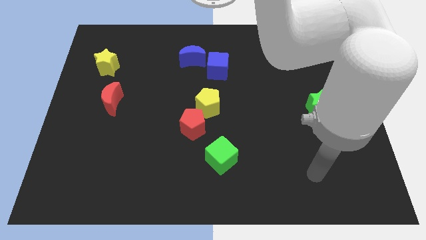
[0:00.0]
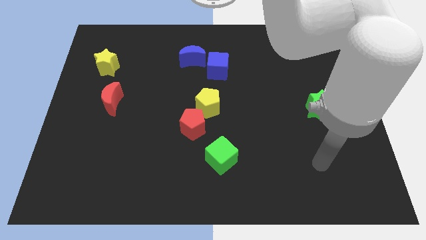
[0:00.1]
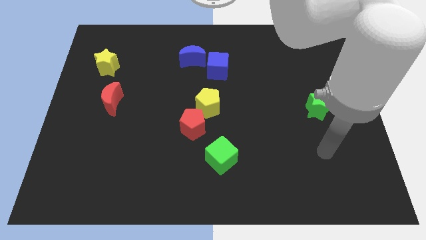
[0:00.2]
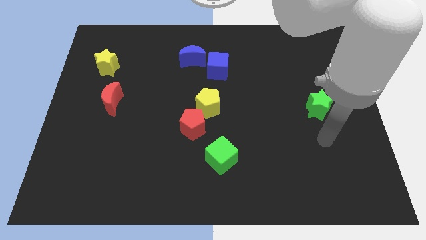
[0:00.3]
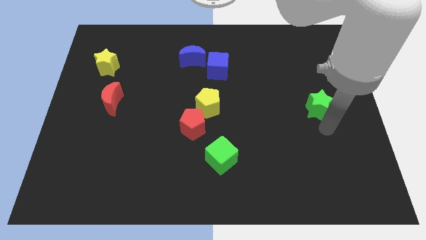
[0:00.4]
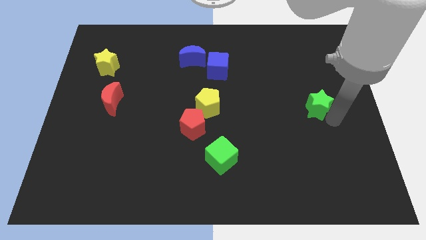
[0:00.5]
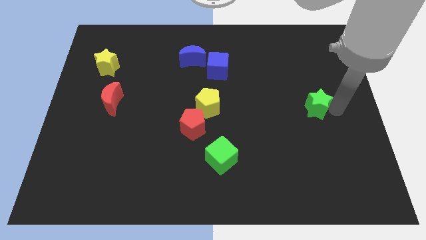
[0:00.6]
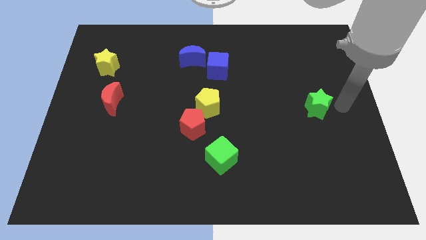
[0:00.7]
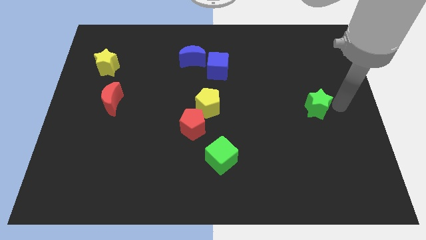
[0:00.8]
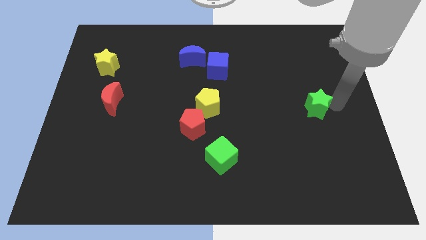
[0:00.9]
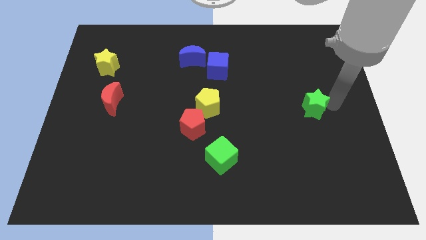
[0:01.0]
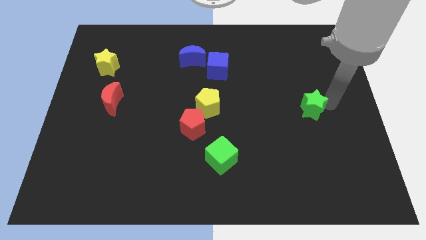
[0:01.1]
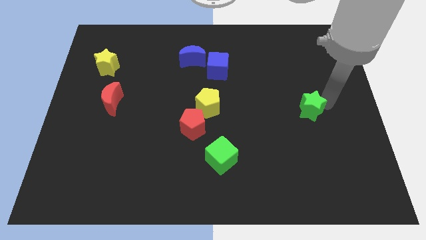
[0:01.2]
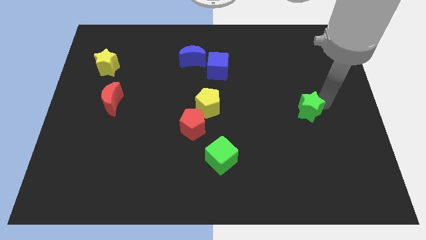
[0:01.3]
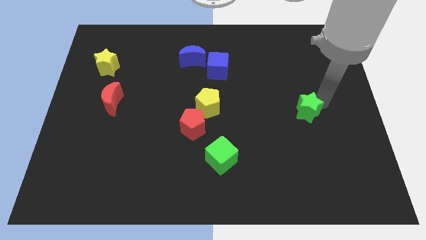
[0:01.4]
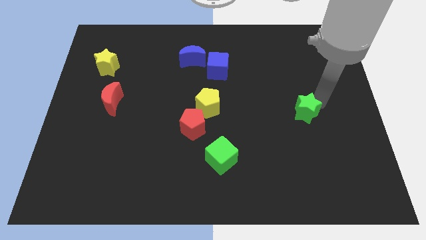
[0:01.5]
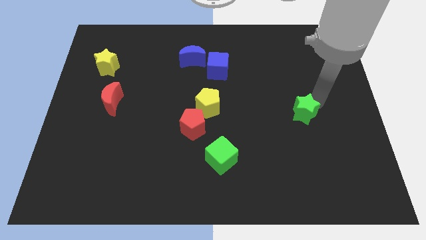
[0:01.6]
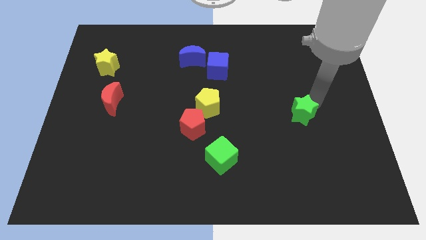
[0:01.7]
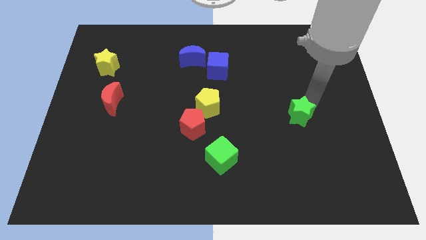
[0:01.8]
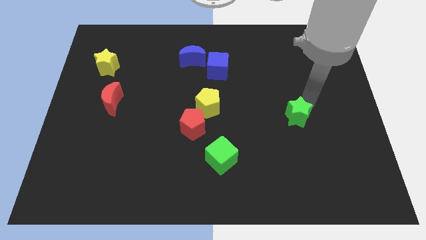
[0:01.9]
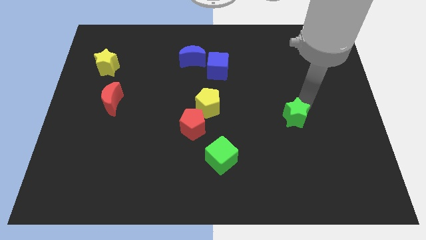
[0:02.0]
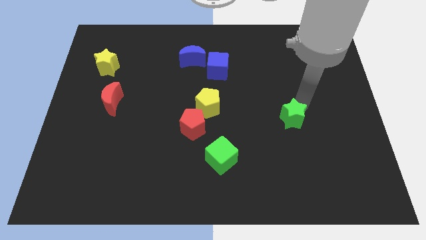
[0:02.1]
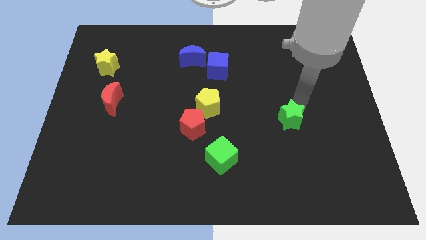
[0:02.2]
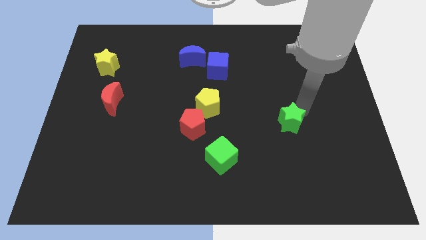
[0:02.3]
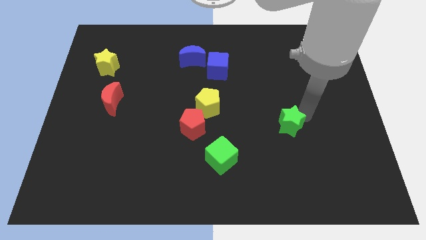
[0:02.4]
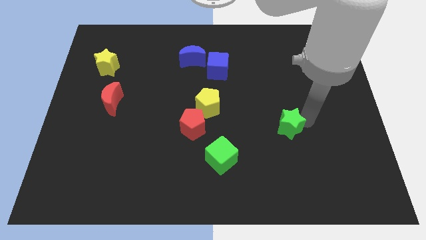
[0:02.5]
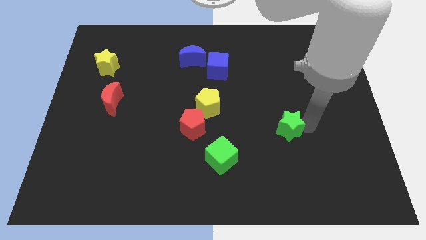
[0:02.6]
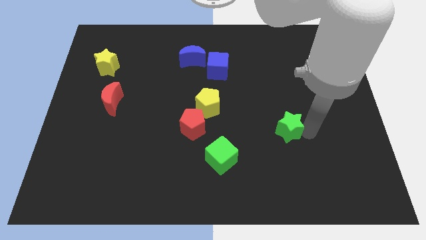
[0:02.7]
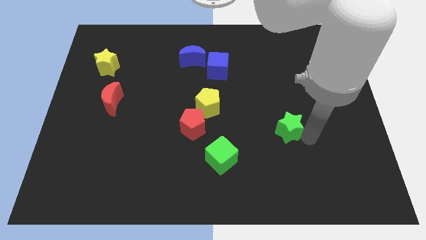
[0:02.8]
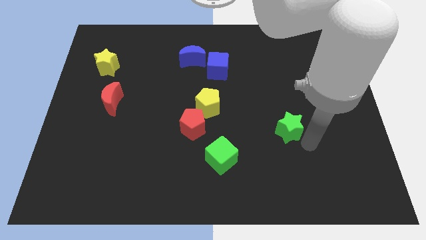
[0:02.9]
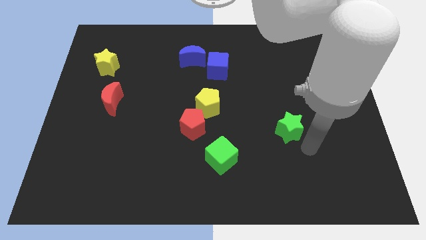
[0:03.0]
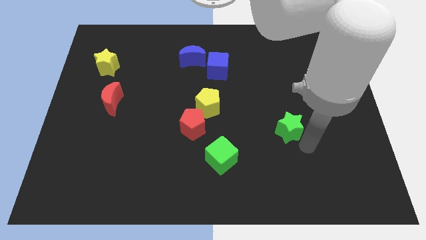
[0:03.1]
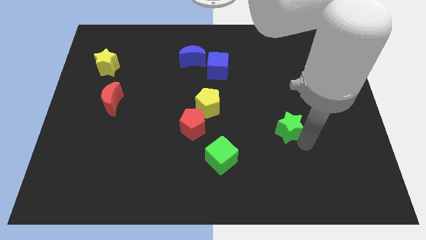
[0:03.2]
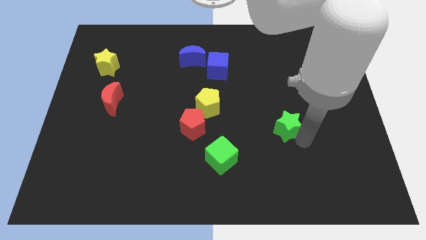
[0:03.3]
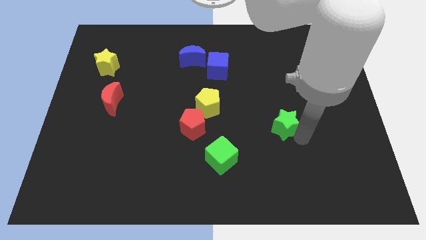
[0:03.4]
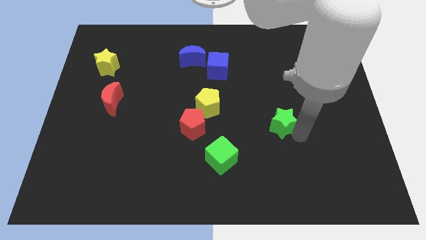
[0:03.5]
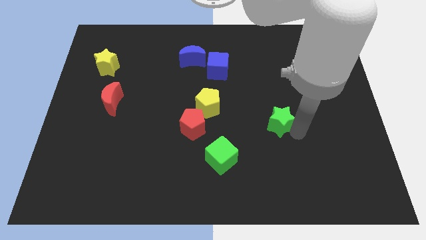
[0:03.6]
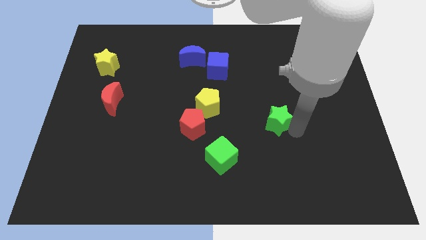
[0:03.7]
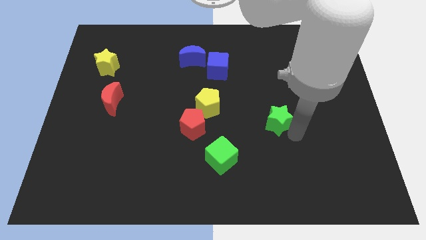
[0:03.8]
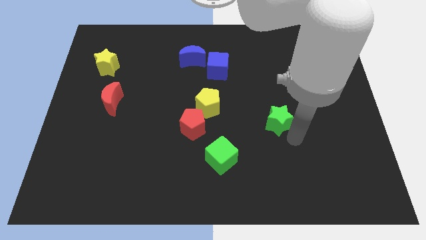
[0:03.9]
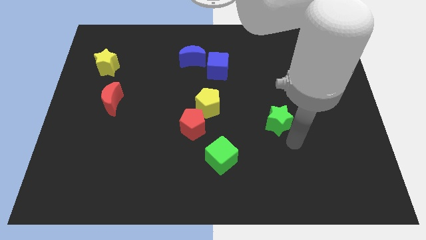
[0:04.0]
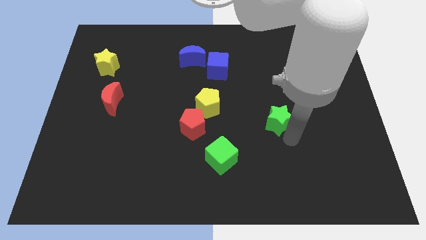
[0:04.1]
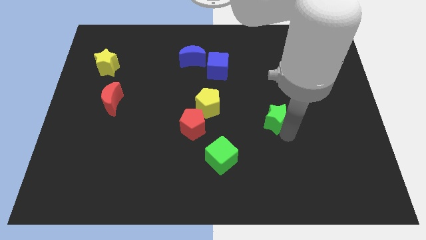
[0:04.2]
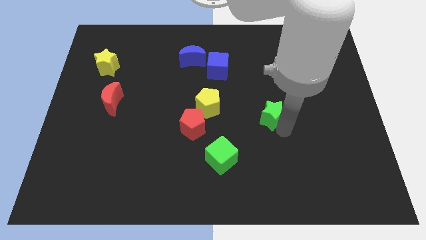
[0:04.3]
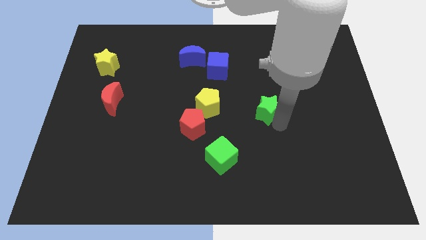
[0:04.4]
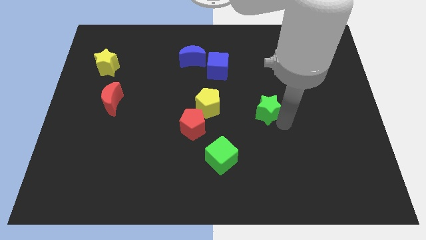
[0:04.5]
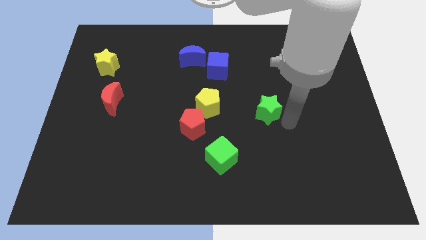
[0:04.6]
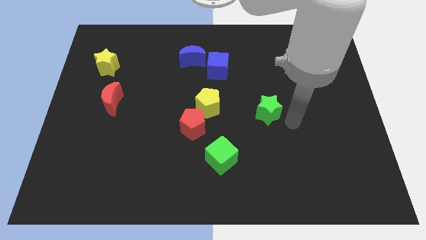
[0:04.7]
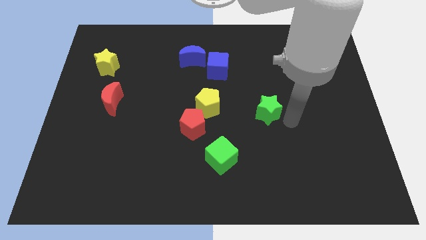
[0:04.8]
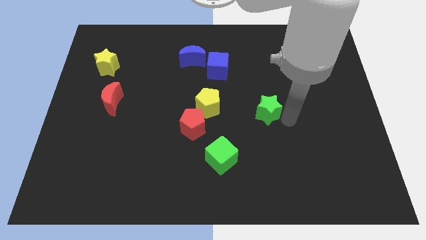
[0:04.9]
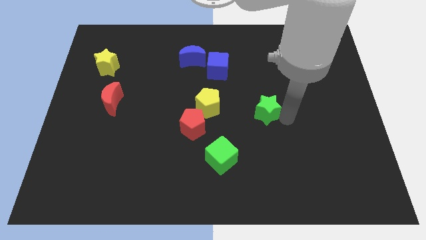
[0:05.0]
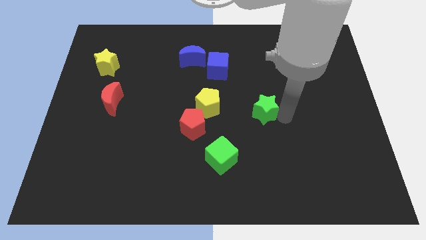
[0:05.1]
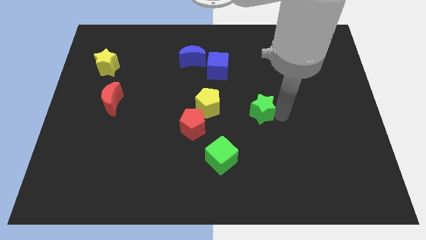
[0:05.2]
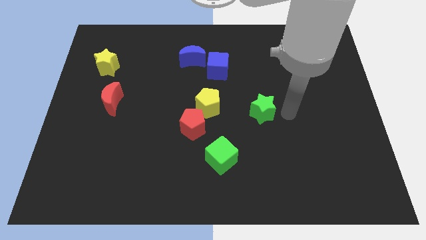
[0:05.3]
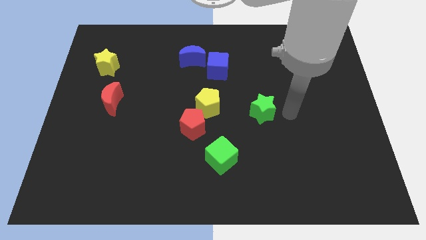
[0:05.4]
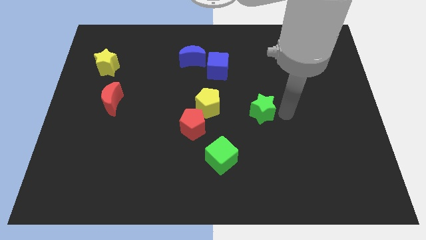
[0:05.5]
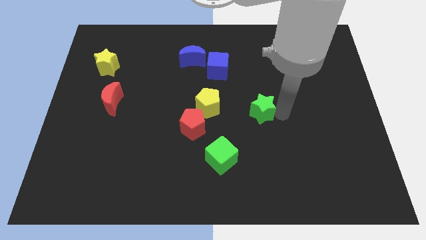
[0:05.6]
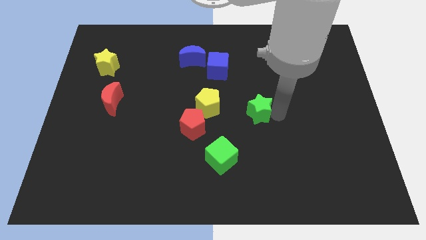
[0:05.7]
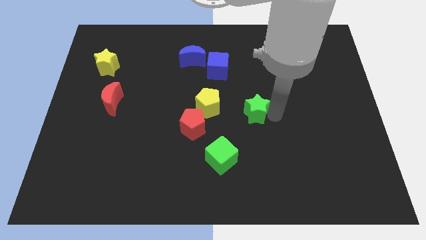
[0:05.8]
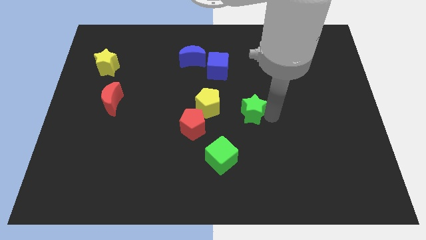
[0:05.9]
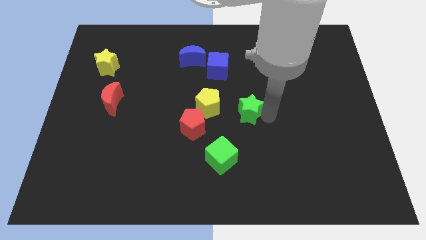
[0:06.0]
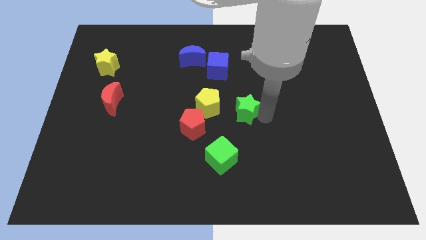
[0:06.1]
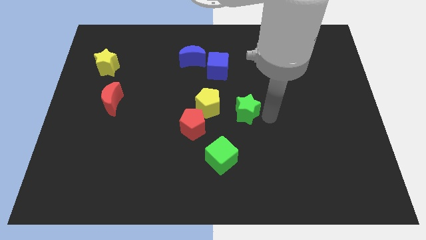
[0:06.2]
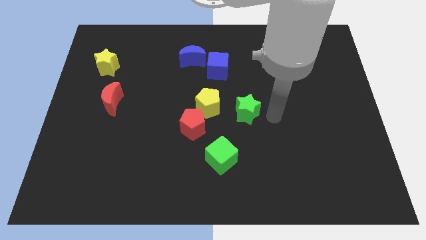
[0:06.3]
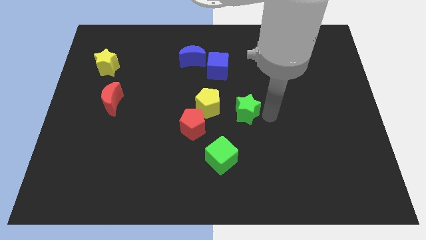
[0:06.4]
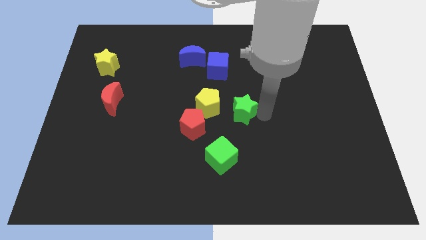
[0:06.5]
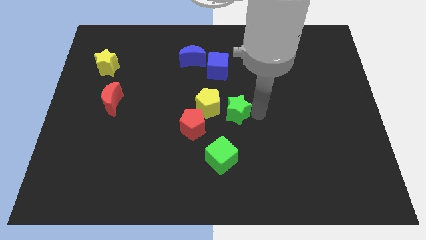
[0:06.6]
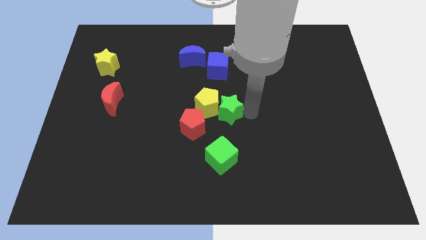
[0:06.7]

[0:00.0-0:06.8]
put the green star to the yellow pentagon

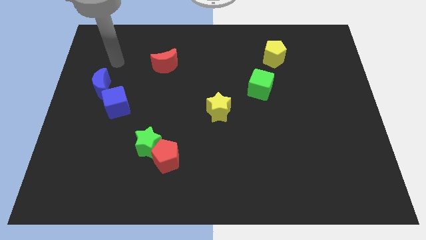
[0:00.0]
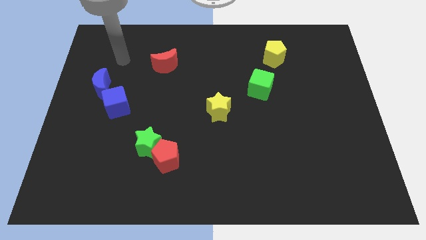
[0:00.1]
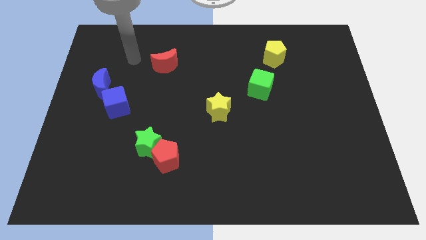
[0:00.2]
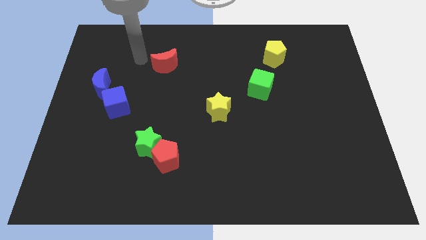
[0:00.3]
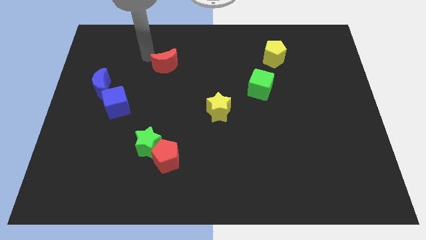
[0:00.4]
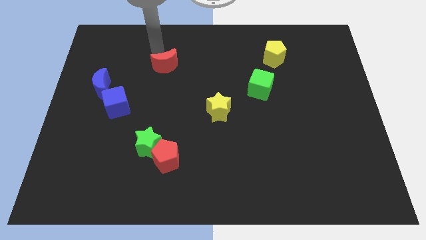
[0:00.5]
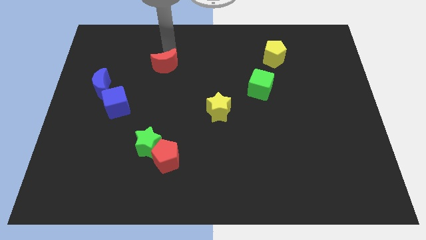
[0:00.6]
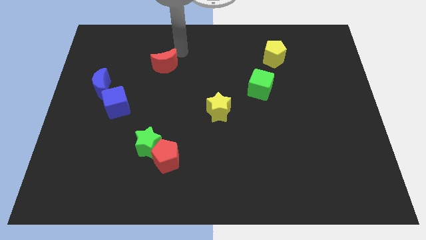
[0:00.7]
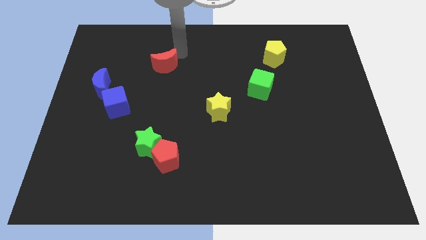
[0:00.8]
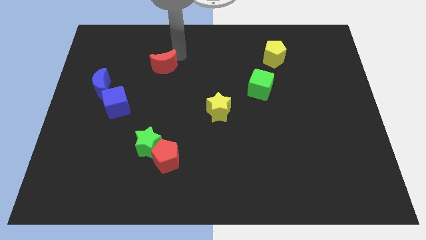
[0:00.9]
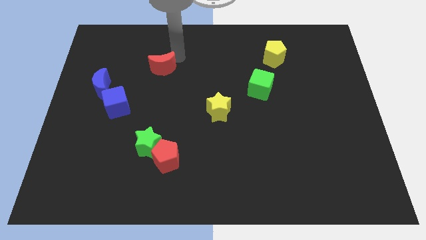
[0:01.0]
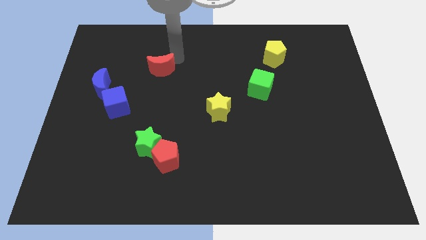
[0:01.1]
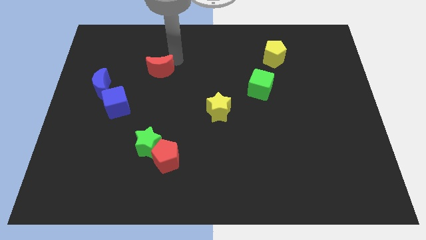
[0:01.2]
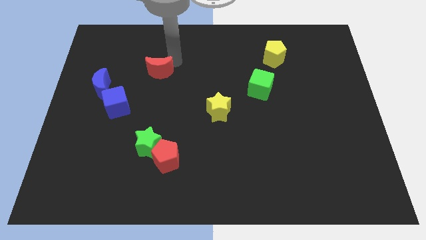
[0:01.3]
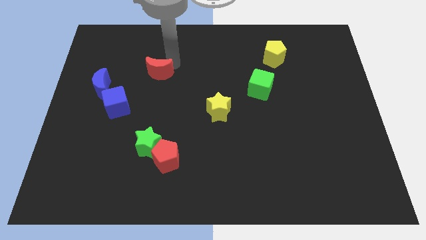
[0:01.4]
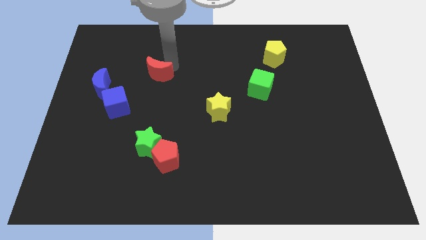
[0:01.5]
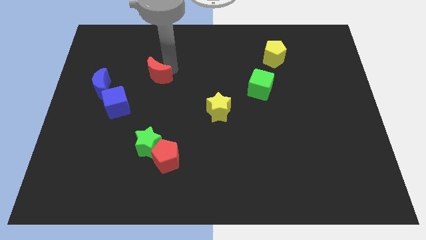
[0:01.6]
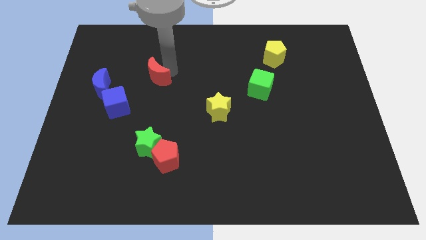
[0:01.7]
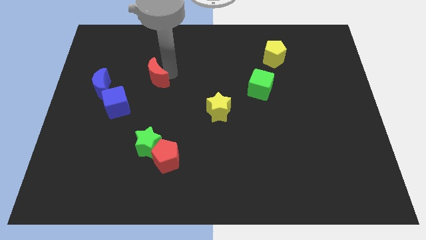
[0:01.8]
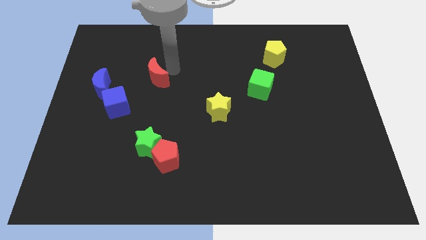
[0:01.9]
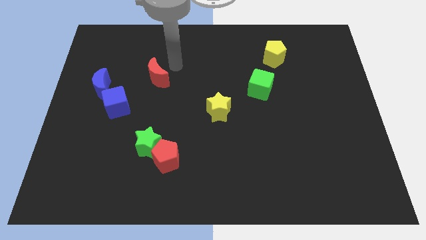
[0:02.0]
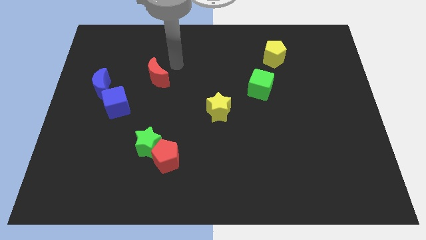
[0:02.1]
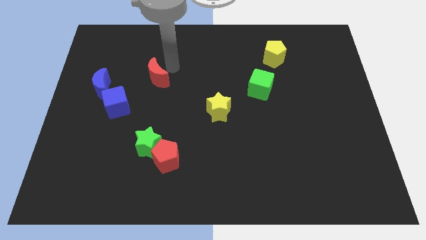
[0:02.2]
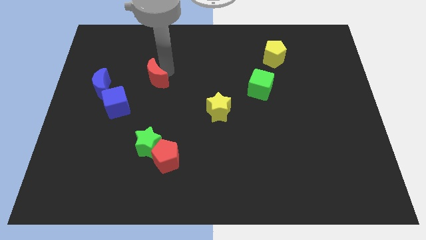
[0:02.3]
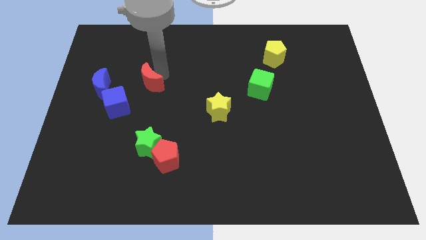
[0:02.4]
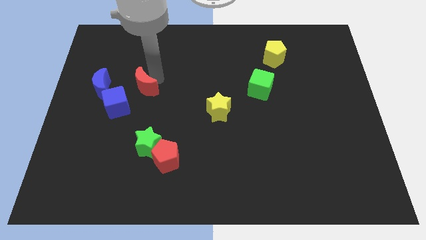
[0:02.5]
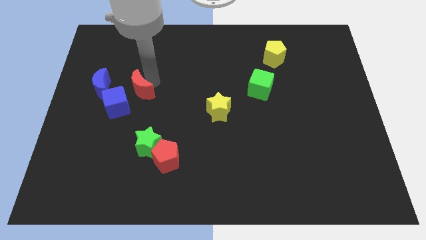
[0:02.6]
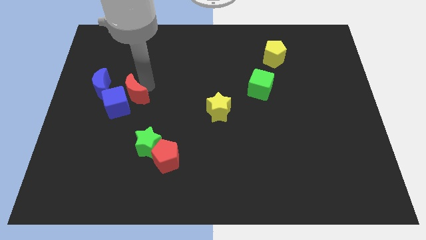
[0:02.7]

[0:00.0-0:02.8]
move the red moon close to the blue cube
